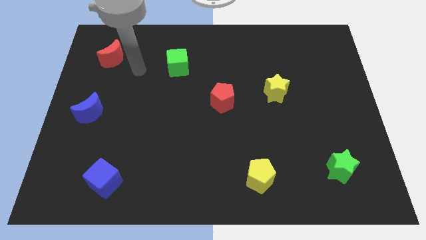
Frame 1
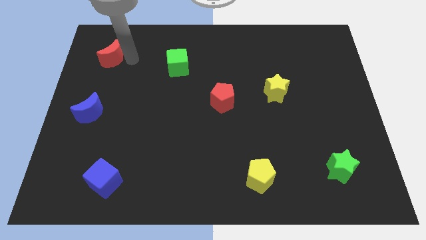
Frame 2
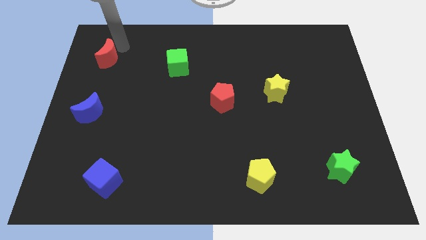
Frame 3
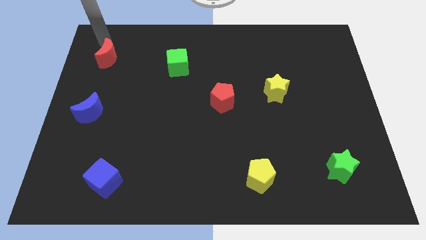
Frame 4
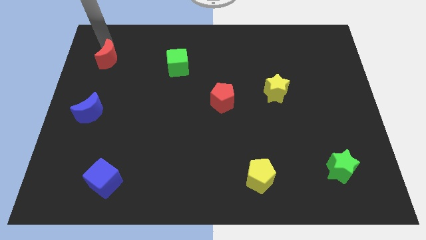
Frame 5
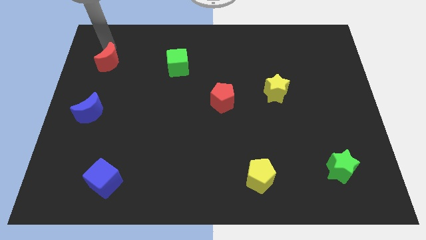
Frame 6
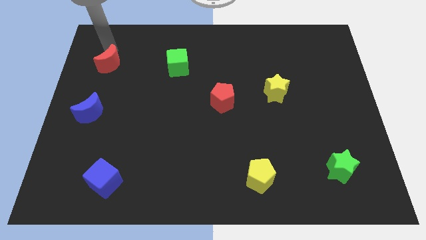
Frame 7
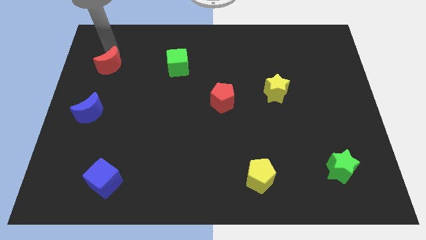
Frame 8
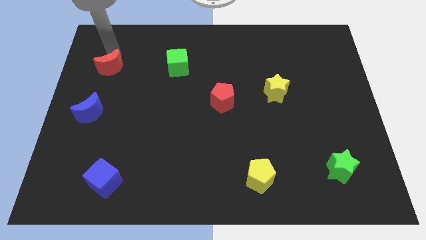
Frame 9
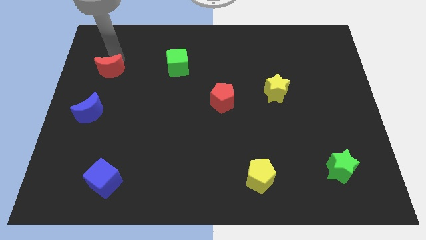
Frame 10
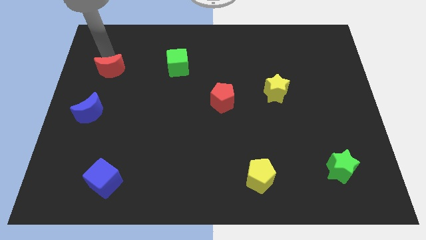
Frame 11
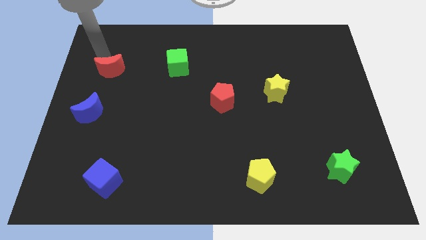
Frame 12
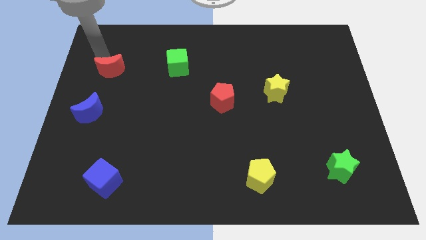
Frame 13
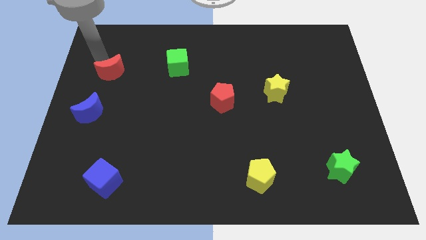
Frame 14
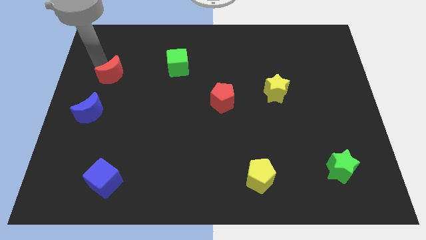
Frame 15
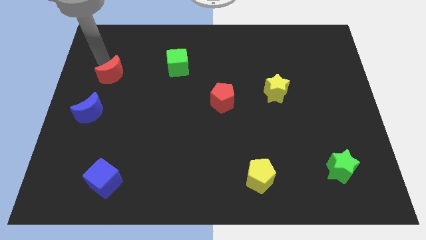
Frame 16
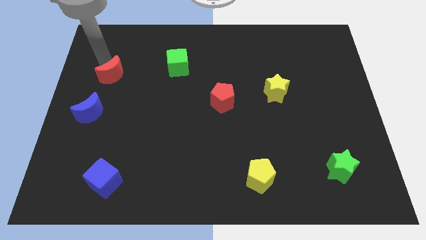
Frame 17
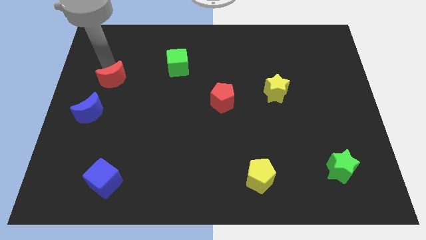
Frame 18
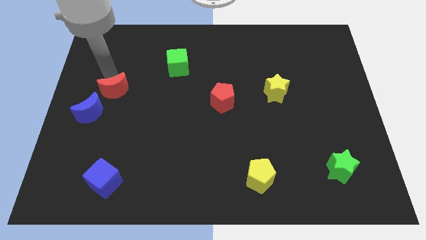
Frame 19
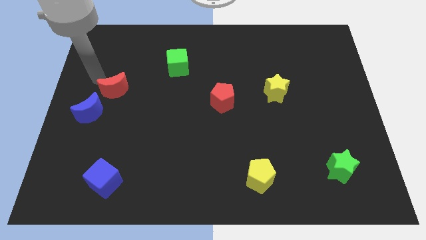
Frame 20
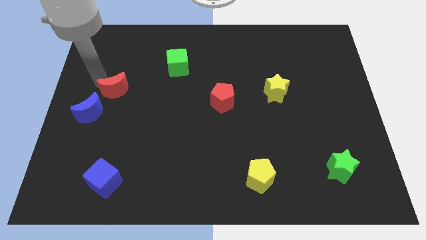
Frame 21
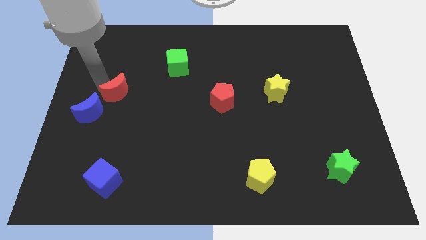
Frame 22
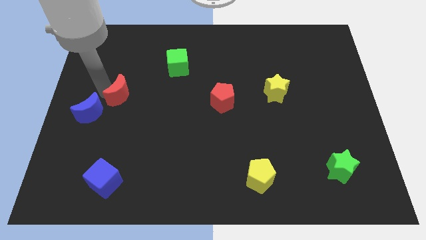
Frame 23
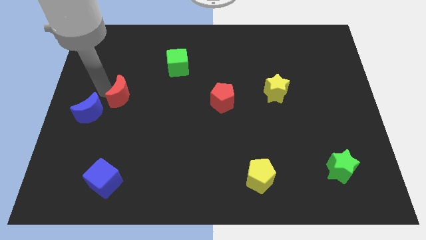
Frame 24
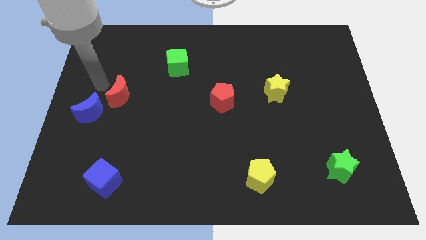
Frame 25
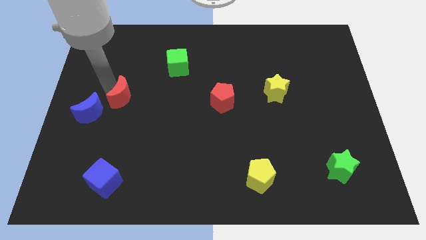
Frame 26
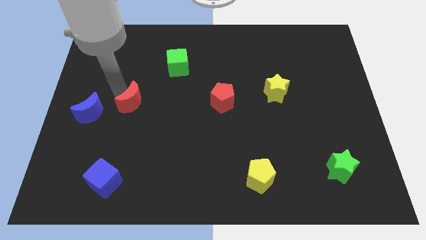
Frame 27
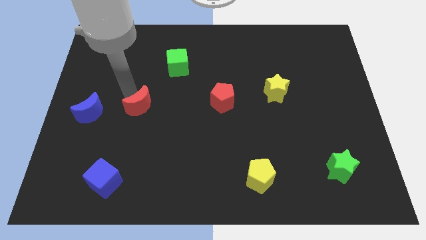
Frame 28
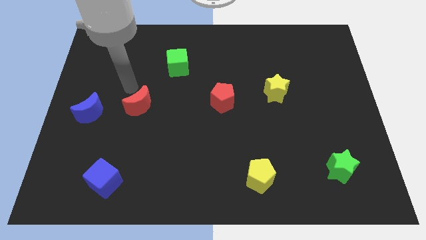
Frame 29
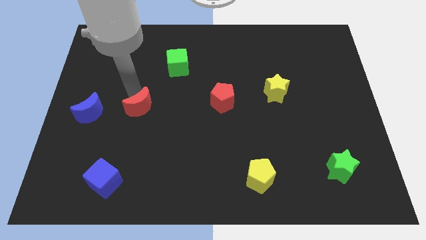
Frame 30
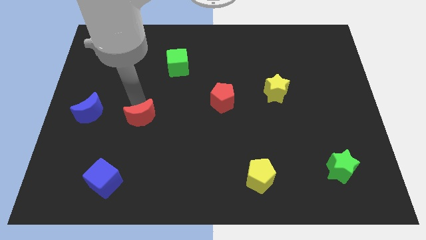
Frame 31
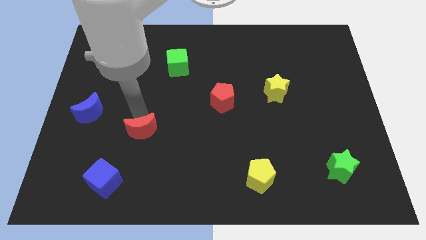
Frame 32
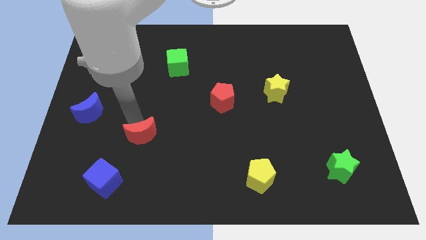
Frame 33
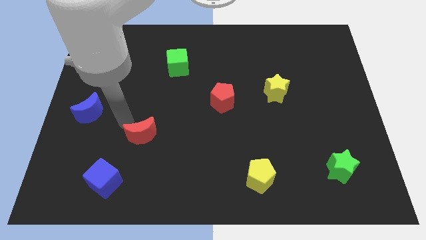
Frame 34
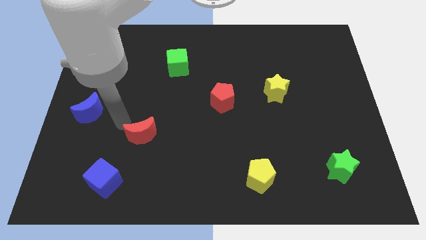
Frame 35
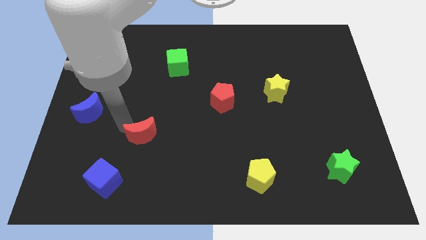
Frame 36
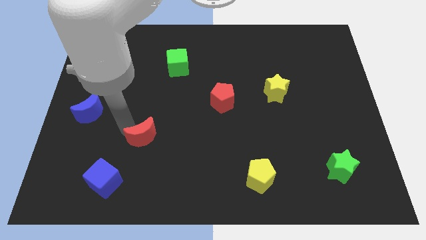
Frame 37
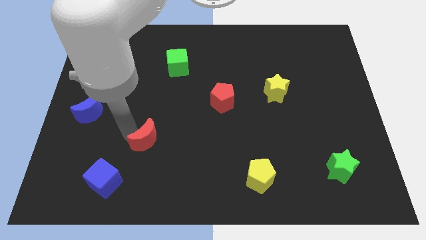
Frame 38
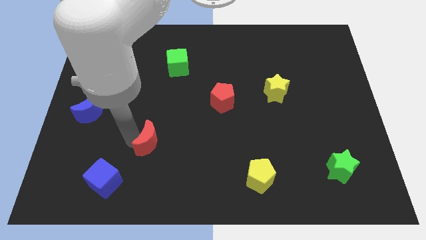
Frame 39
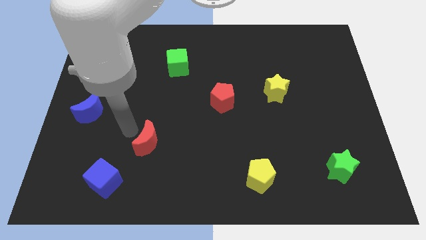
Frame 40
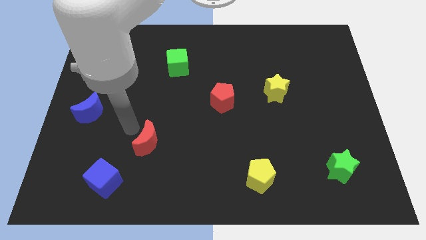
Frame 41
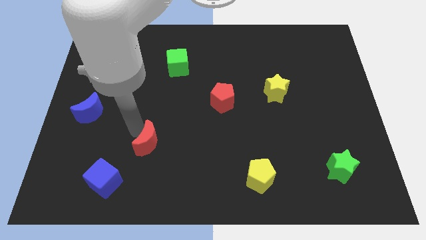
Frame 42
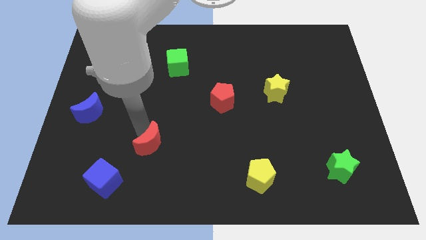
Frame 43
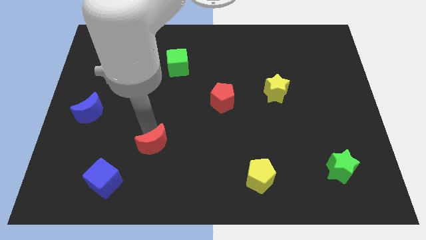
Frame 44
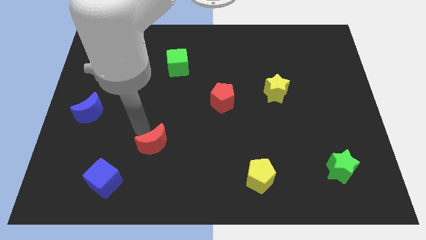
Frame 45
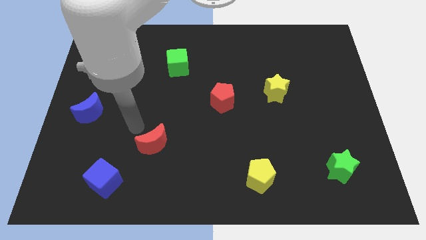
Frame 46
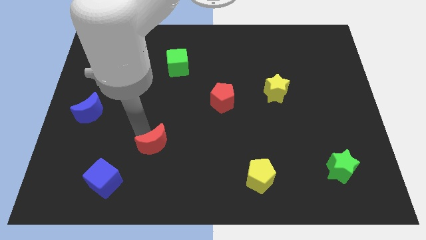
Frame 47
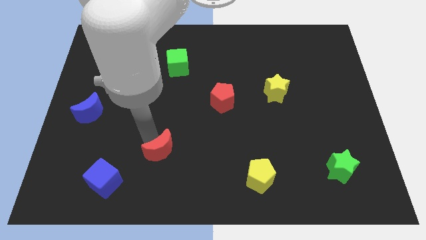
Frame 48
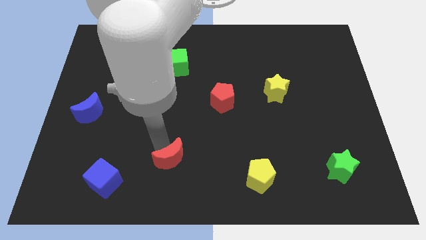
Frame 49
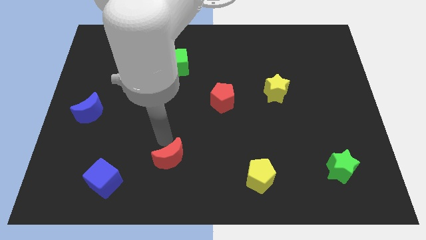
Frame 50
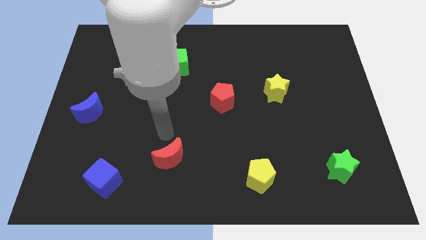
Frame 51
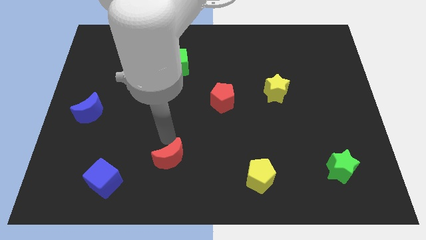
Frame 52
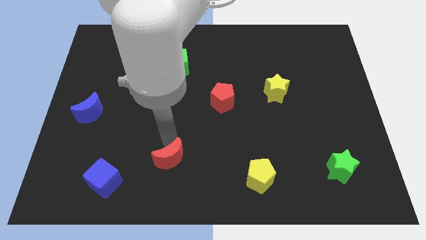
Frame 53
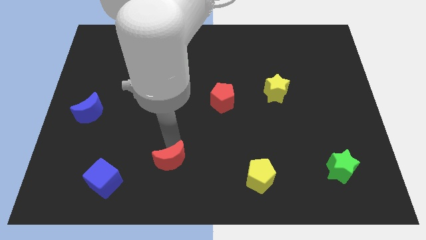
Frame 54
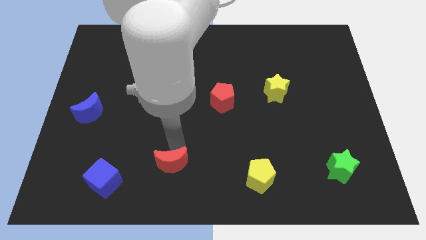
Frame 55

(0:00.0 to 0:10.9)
put the red moon to the bottom side

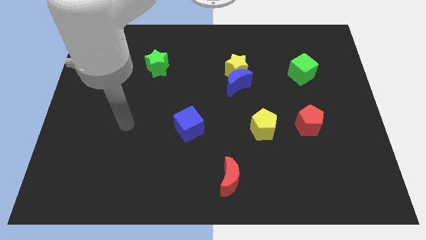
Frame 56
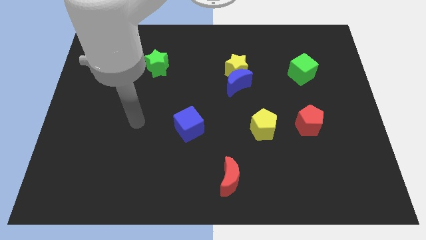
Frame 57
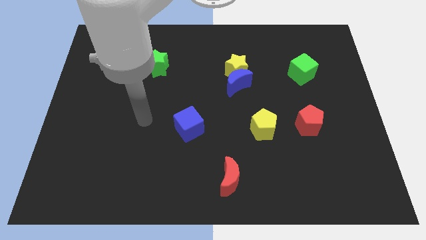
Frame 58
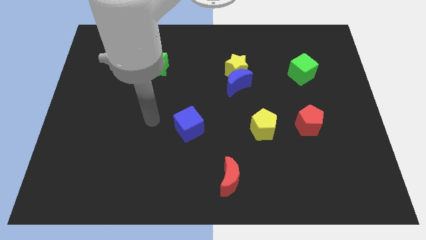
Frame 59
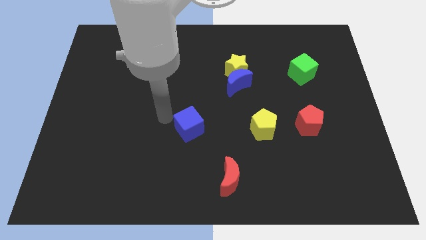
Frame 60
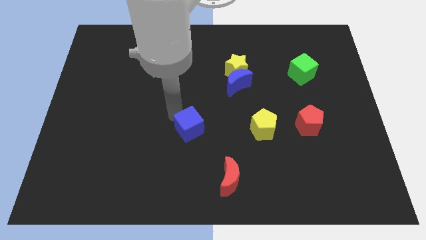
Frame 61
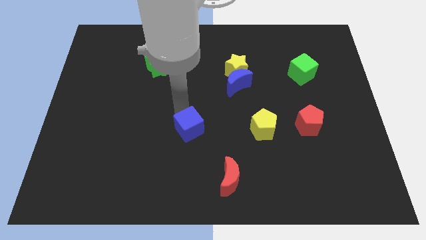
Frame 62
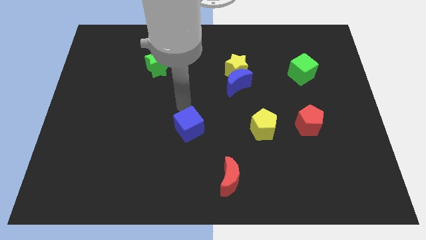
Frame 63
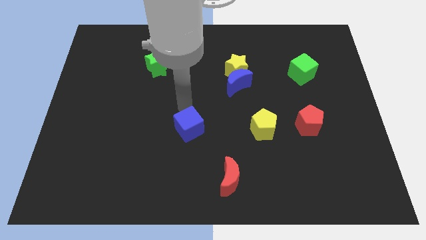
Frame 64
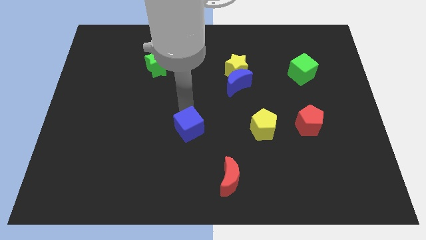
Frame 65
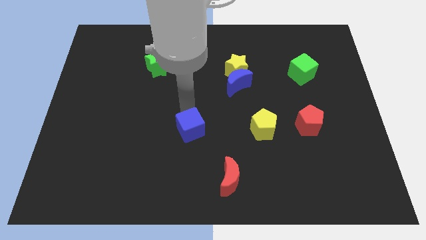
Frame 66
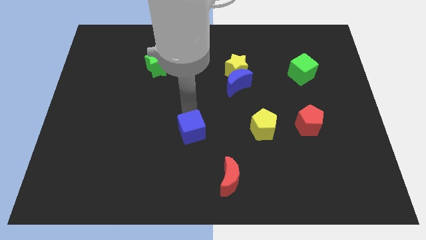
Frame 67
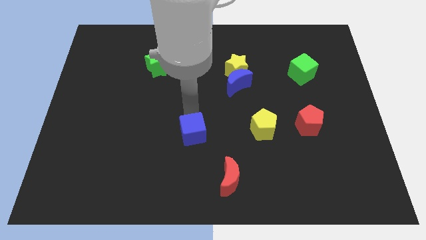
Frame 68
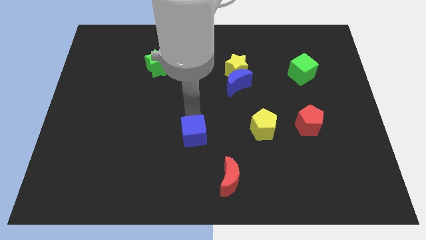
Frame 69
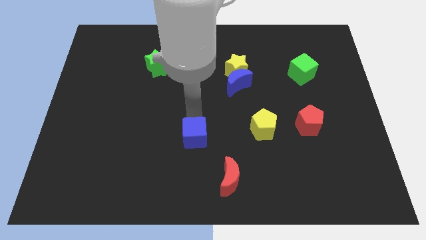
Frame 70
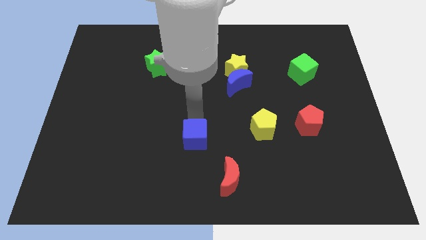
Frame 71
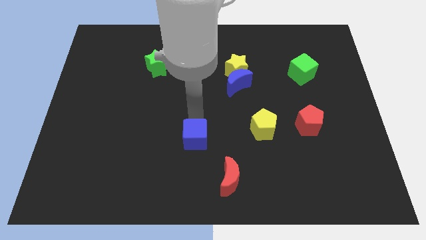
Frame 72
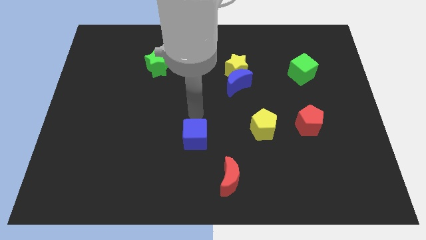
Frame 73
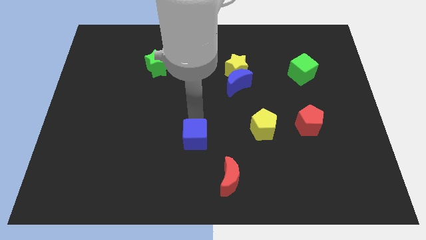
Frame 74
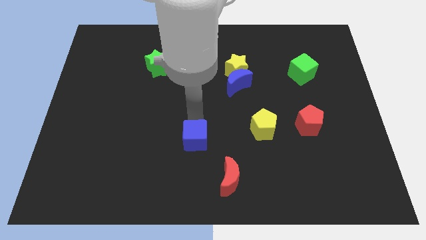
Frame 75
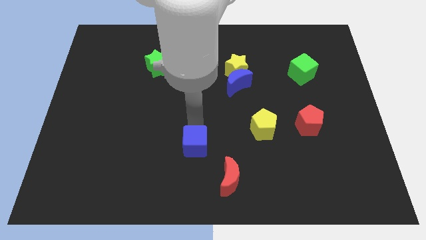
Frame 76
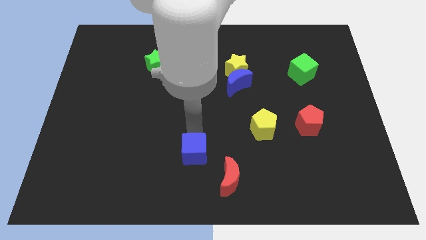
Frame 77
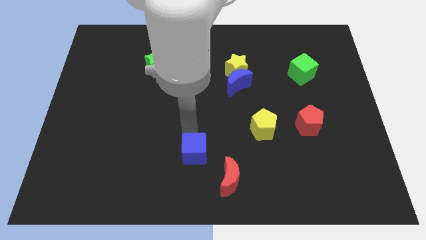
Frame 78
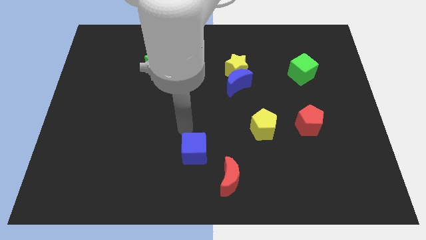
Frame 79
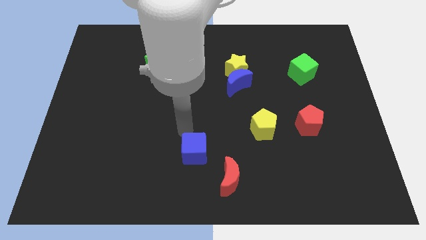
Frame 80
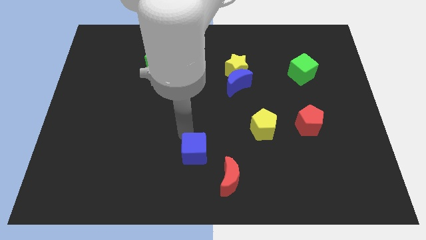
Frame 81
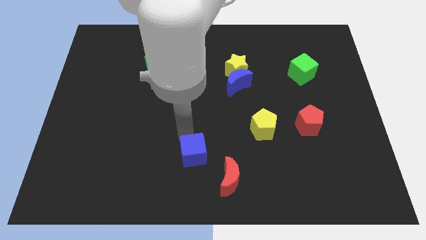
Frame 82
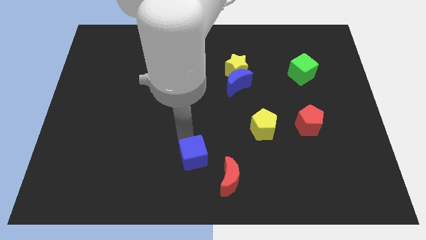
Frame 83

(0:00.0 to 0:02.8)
push the blue cube to the bottom
